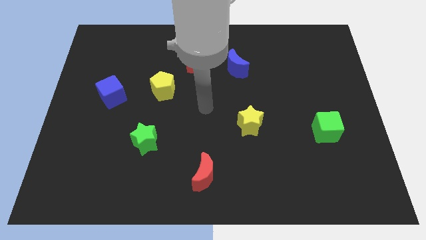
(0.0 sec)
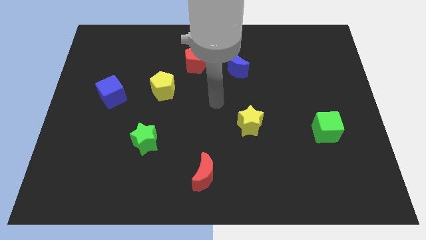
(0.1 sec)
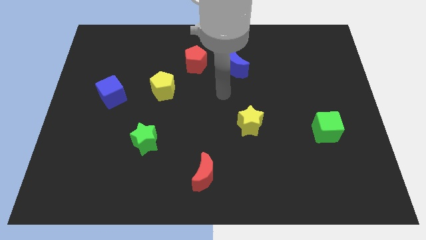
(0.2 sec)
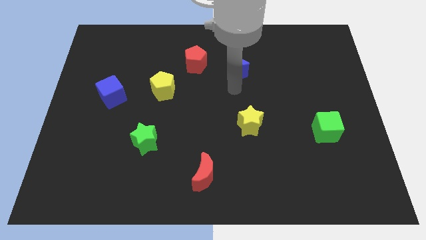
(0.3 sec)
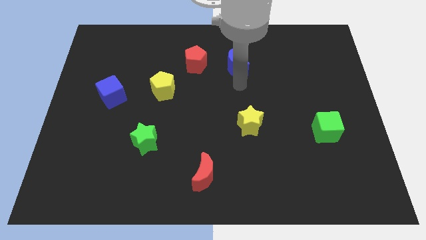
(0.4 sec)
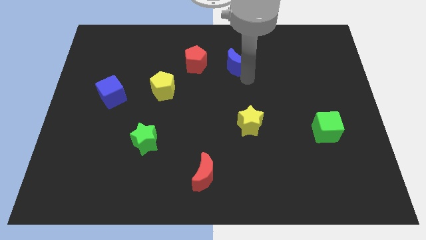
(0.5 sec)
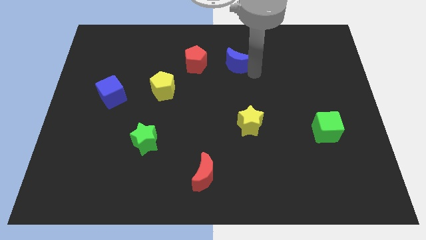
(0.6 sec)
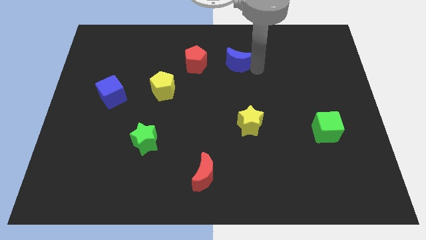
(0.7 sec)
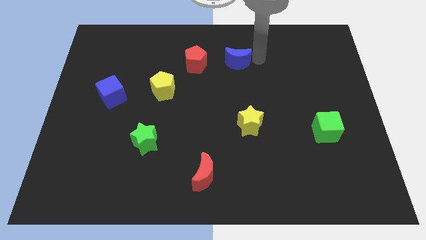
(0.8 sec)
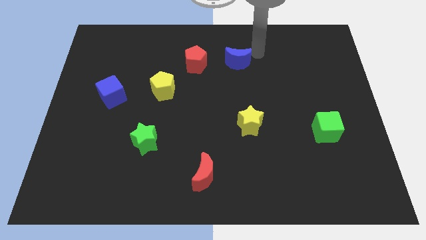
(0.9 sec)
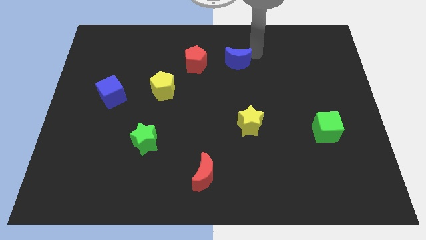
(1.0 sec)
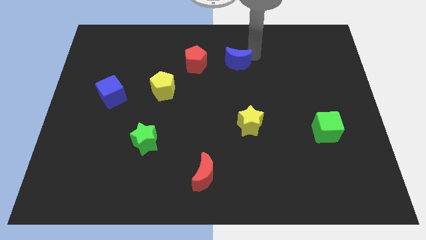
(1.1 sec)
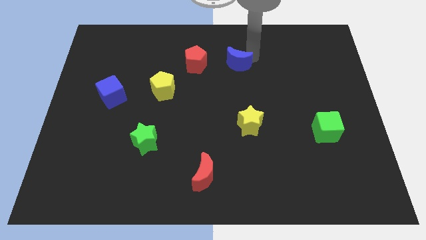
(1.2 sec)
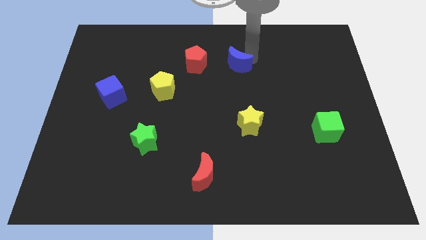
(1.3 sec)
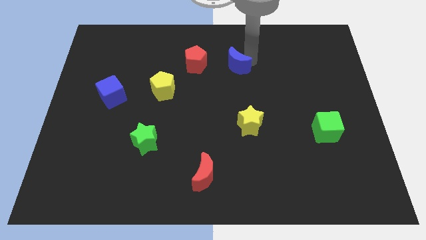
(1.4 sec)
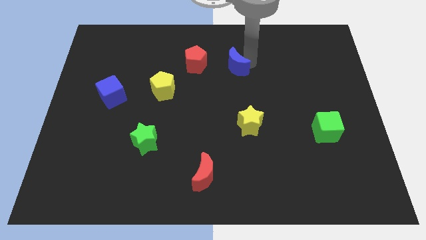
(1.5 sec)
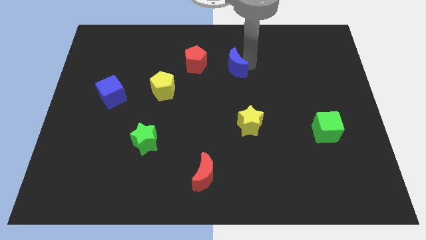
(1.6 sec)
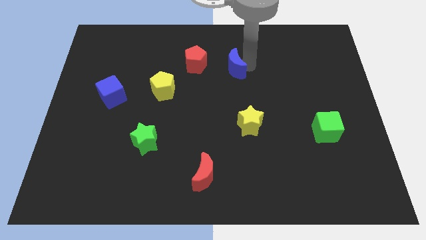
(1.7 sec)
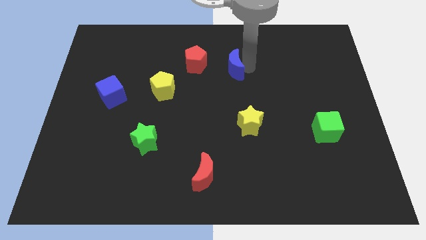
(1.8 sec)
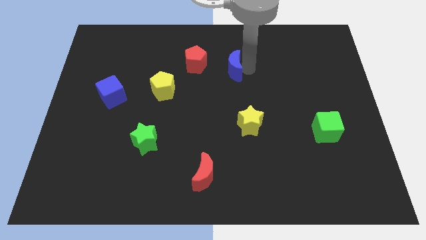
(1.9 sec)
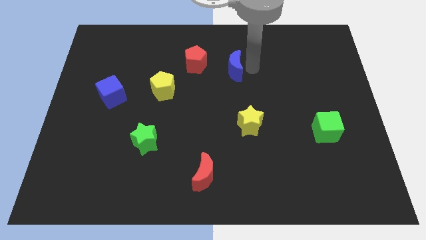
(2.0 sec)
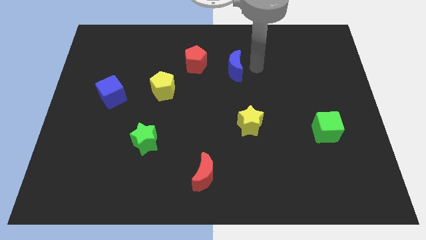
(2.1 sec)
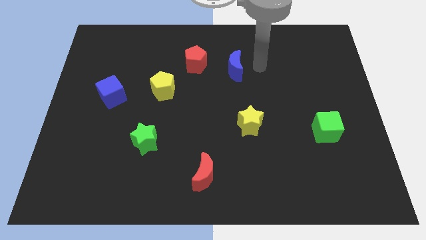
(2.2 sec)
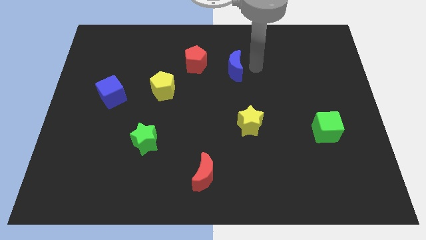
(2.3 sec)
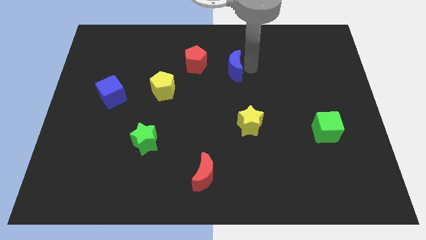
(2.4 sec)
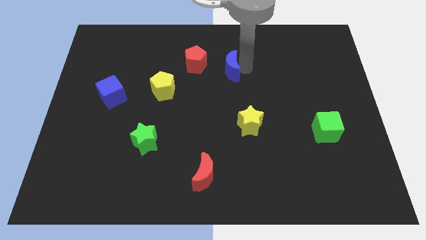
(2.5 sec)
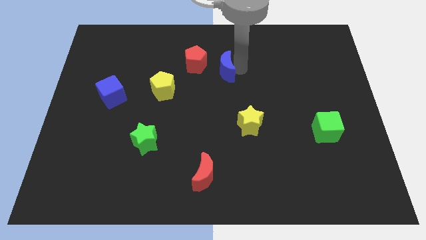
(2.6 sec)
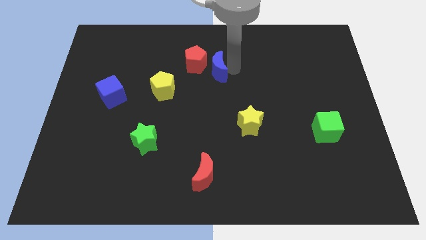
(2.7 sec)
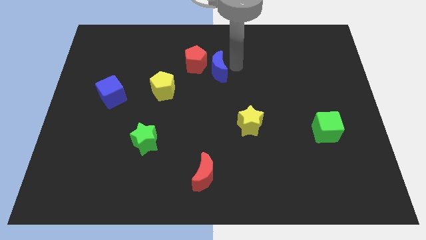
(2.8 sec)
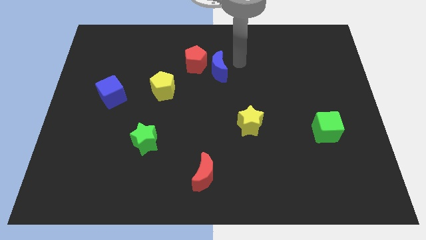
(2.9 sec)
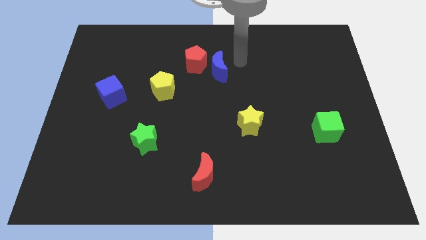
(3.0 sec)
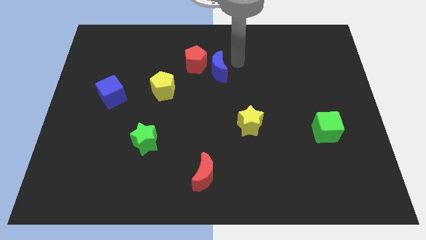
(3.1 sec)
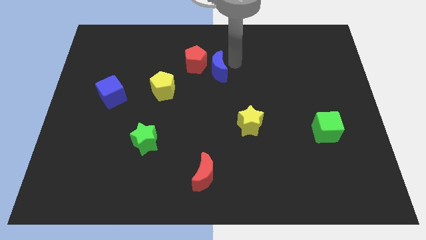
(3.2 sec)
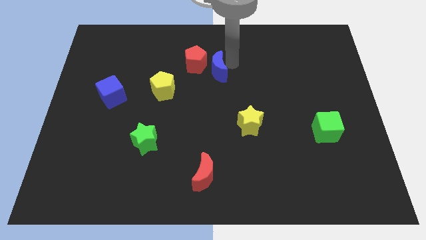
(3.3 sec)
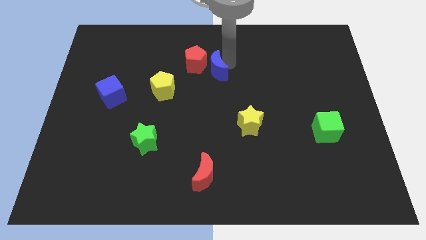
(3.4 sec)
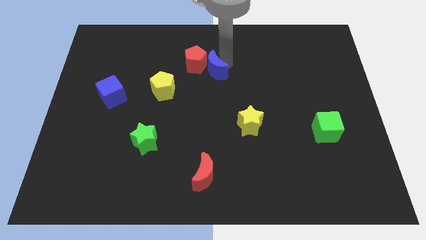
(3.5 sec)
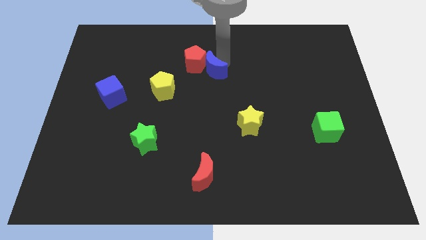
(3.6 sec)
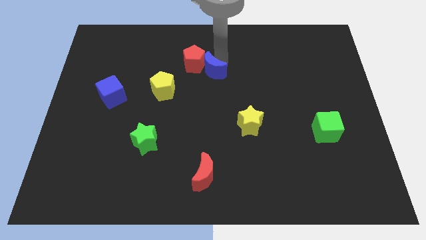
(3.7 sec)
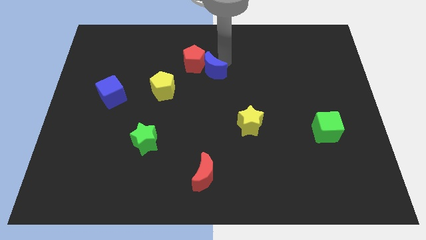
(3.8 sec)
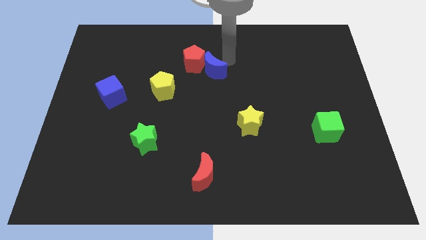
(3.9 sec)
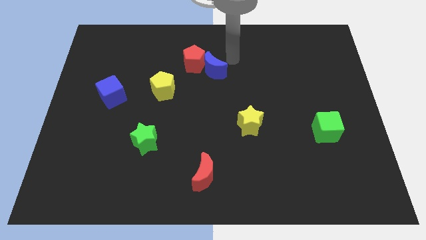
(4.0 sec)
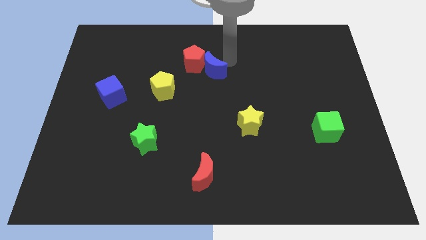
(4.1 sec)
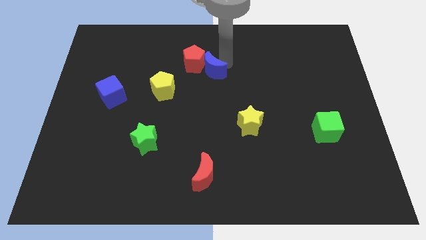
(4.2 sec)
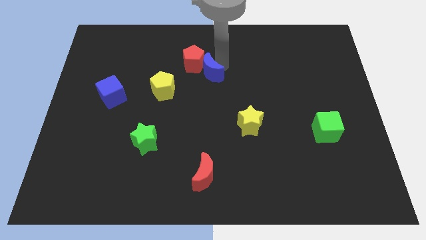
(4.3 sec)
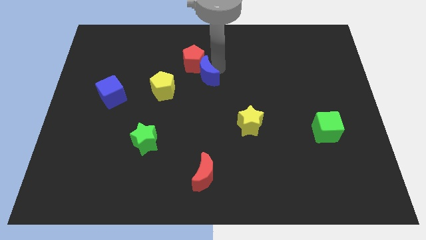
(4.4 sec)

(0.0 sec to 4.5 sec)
push the blue moon a little bit left

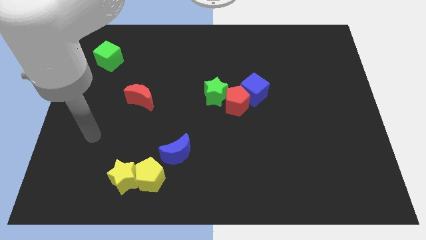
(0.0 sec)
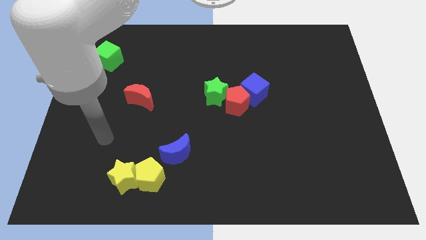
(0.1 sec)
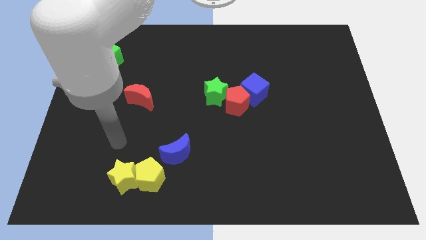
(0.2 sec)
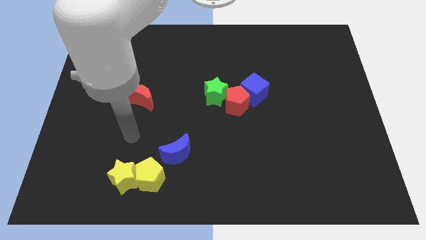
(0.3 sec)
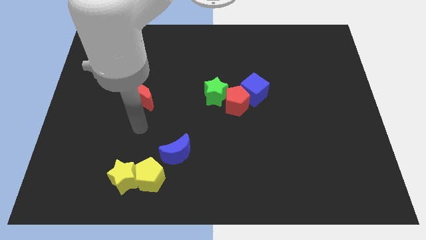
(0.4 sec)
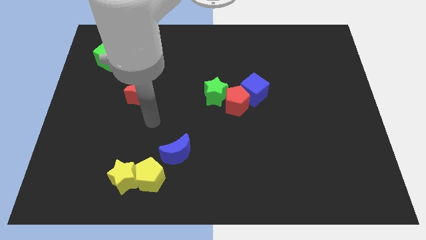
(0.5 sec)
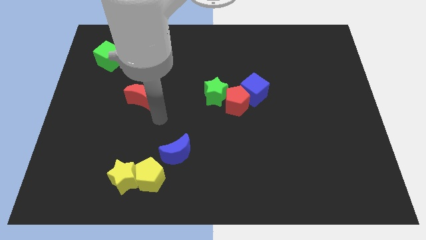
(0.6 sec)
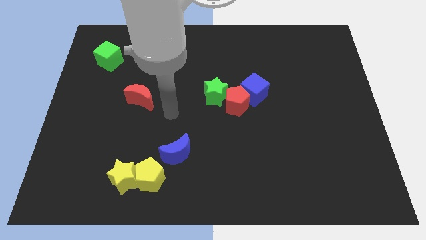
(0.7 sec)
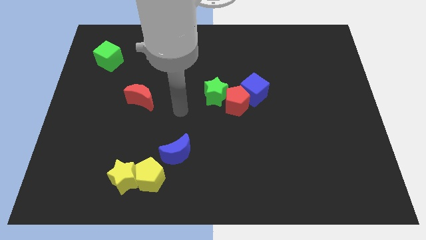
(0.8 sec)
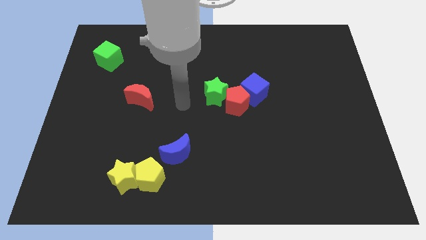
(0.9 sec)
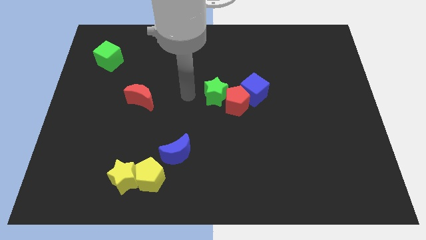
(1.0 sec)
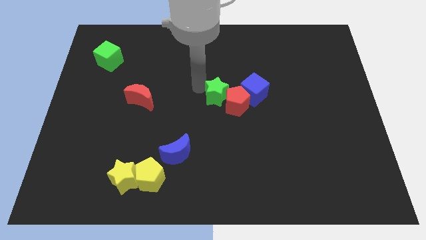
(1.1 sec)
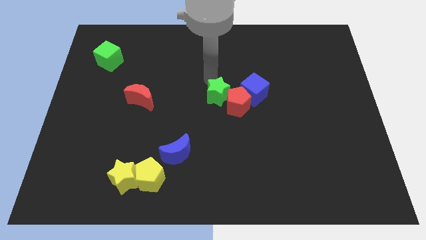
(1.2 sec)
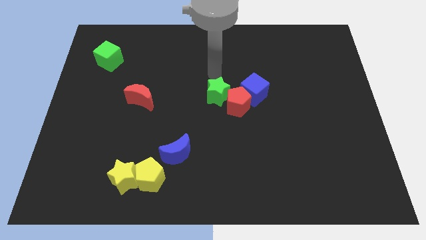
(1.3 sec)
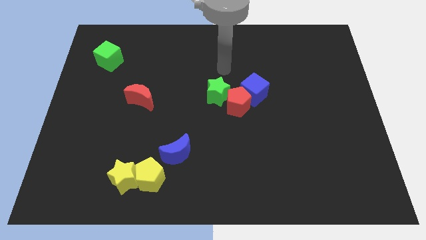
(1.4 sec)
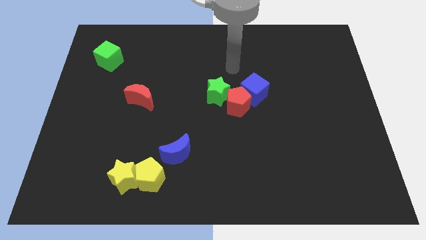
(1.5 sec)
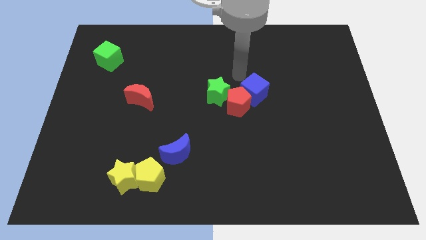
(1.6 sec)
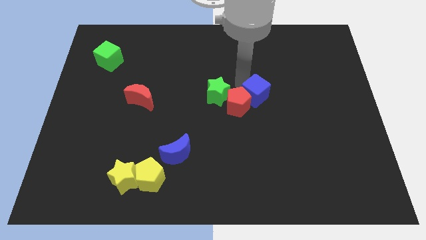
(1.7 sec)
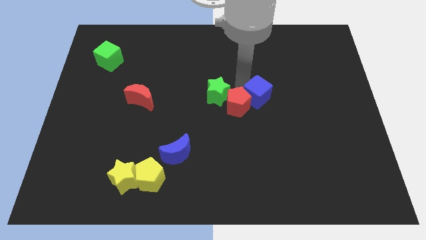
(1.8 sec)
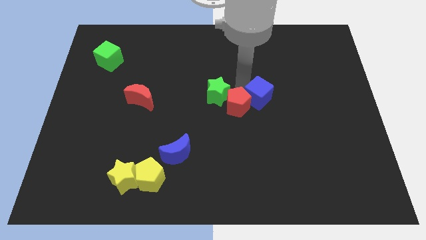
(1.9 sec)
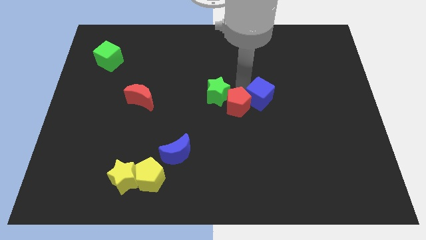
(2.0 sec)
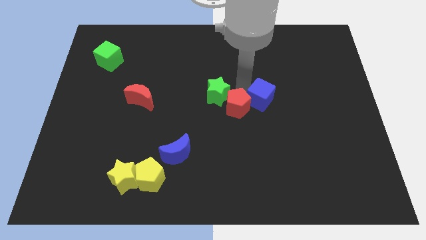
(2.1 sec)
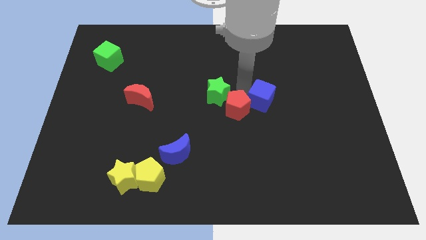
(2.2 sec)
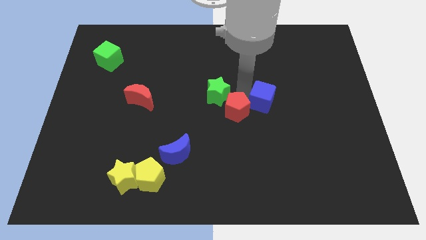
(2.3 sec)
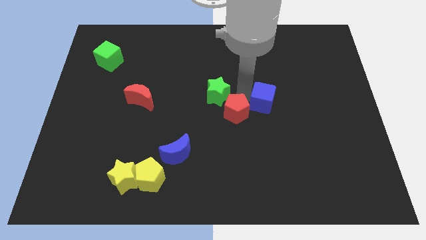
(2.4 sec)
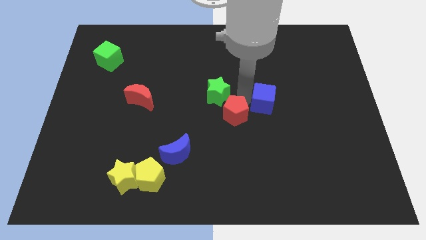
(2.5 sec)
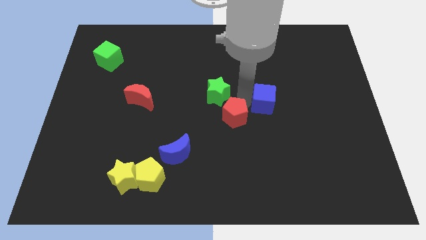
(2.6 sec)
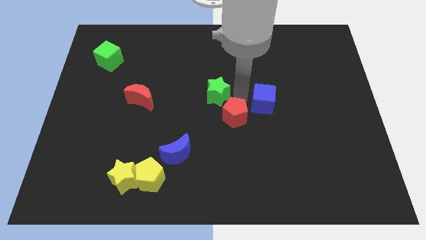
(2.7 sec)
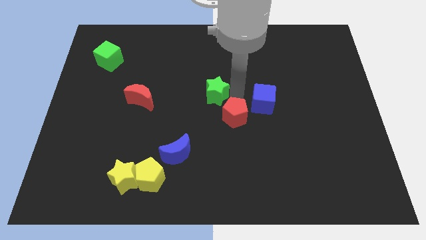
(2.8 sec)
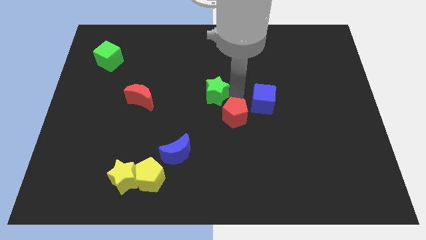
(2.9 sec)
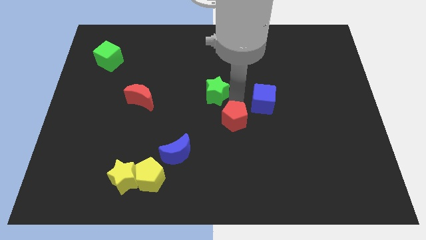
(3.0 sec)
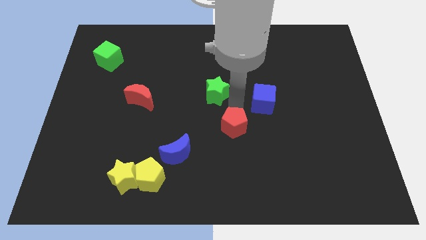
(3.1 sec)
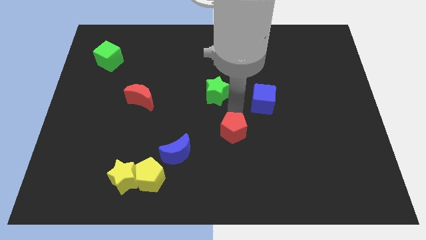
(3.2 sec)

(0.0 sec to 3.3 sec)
slightly push the red pentagon downwards

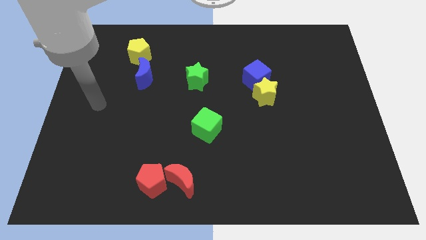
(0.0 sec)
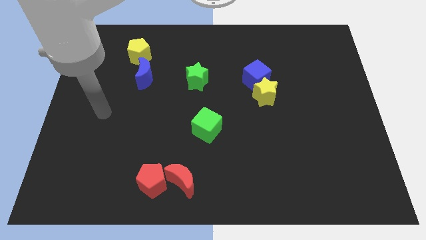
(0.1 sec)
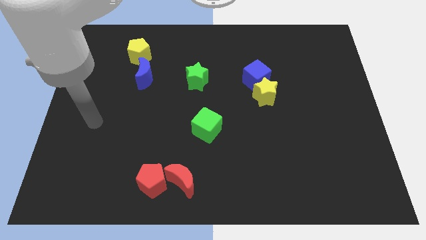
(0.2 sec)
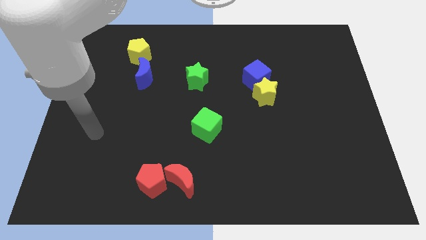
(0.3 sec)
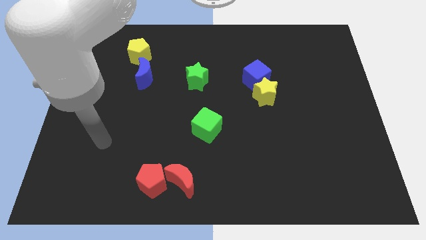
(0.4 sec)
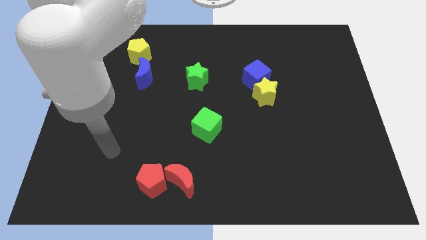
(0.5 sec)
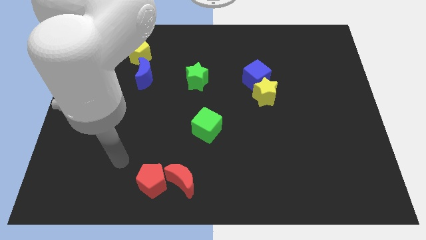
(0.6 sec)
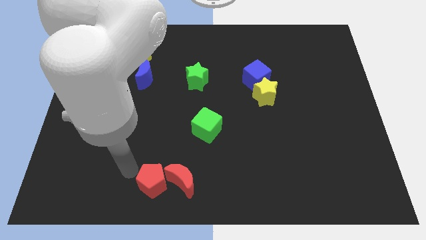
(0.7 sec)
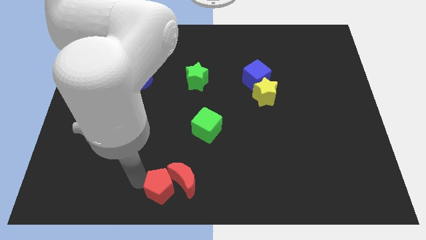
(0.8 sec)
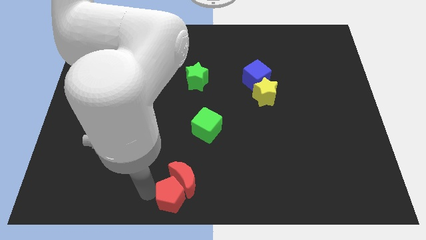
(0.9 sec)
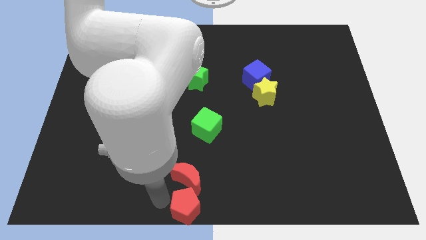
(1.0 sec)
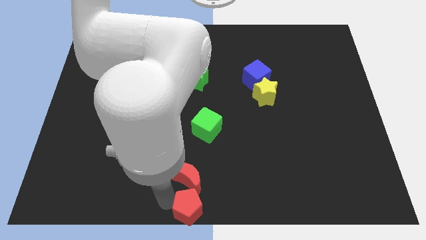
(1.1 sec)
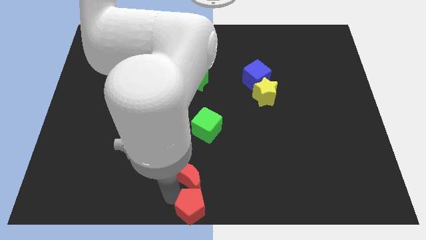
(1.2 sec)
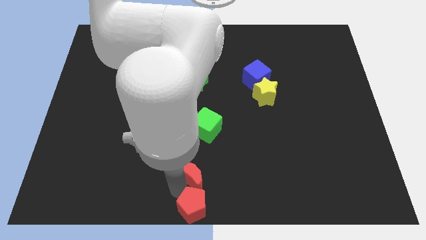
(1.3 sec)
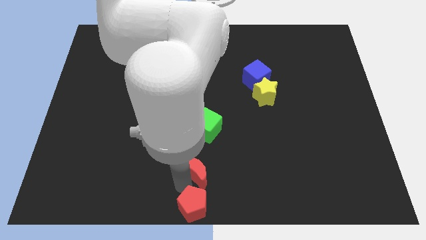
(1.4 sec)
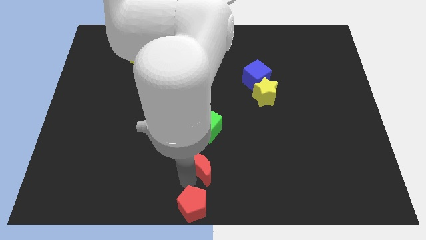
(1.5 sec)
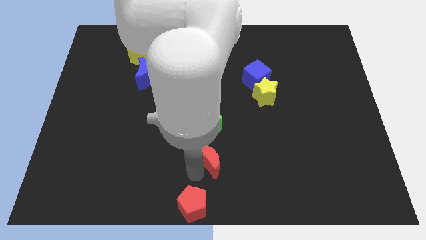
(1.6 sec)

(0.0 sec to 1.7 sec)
slightly move the red moon upwards and to the right
